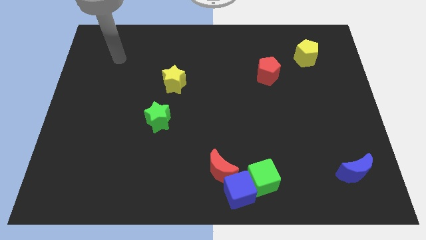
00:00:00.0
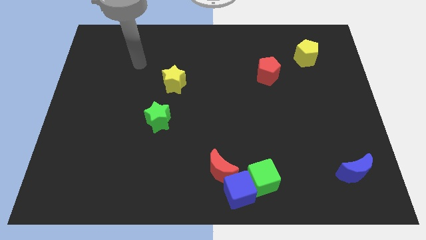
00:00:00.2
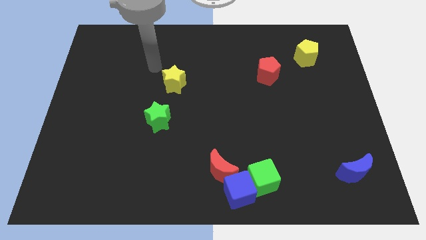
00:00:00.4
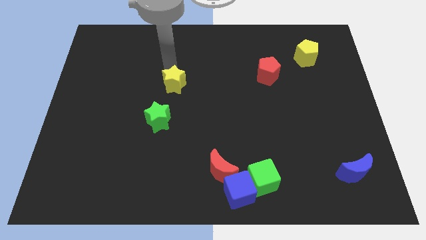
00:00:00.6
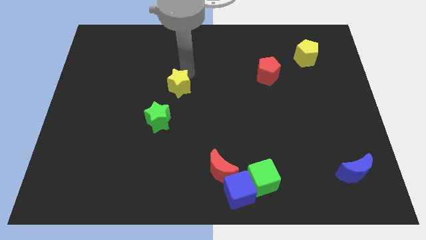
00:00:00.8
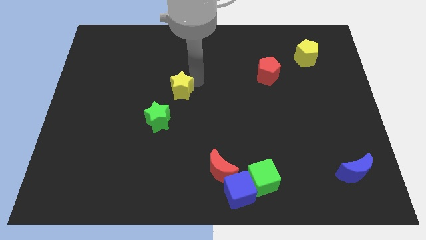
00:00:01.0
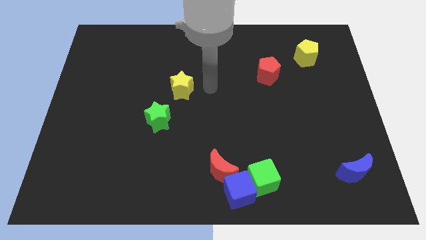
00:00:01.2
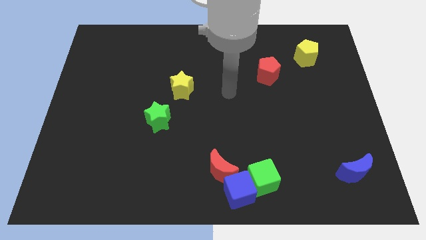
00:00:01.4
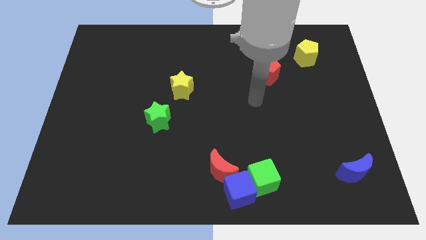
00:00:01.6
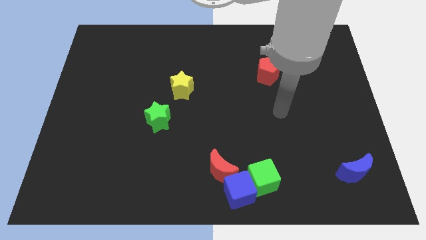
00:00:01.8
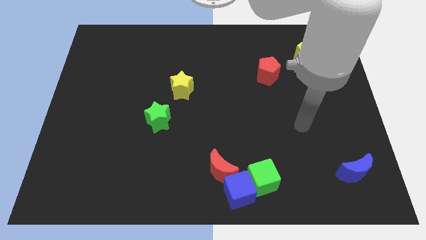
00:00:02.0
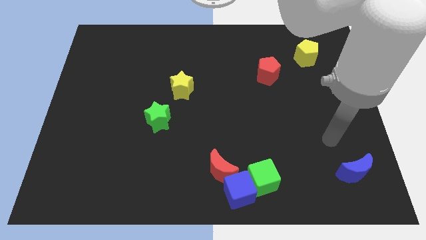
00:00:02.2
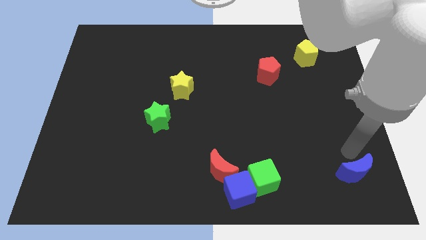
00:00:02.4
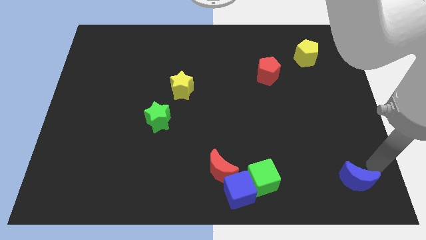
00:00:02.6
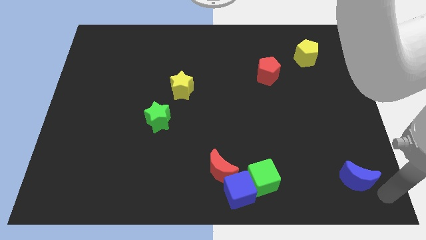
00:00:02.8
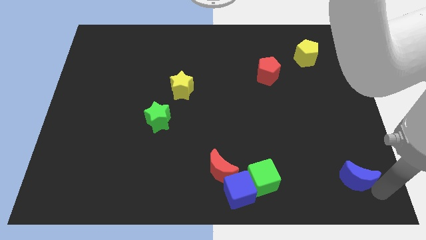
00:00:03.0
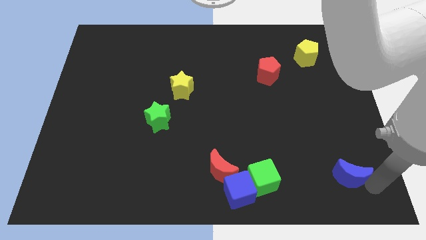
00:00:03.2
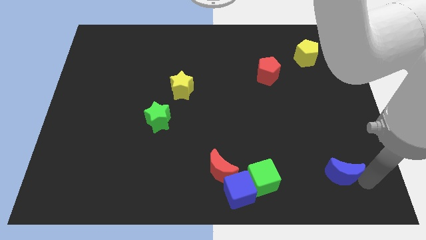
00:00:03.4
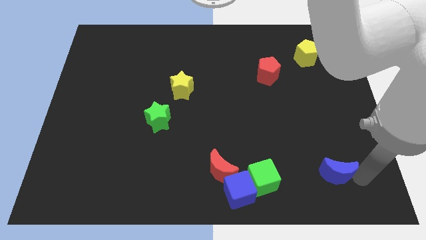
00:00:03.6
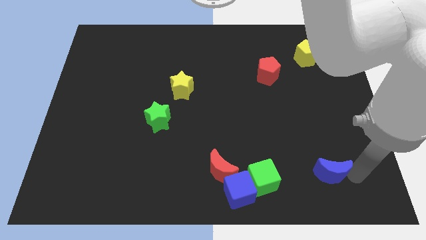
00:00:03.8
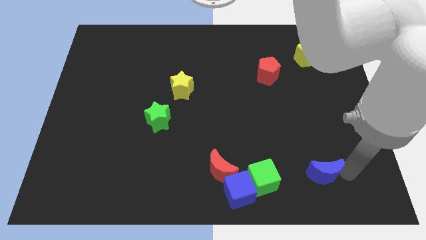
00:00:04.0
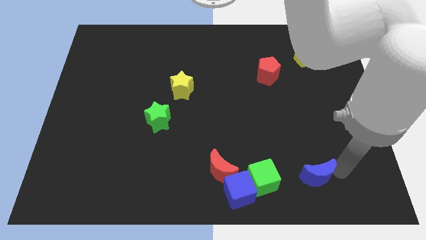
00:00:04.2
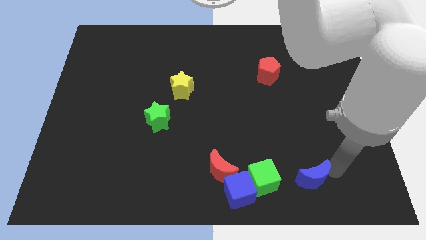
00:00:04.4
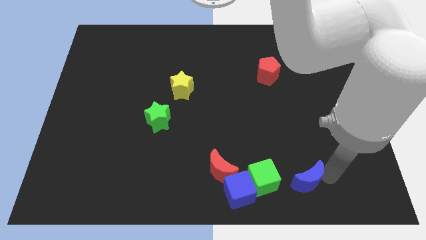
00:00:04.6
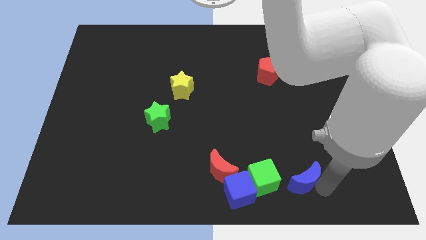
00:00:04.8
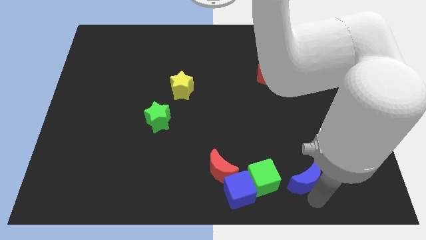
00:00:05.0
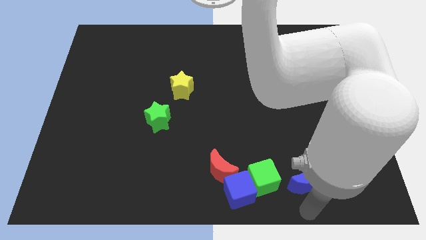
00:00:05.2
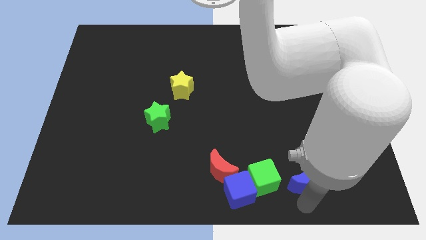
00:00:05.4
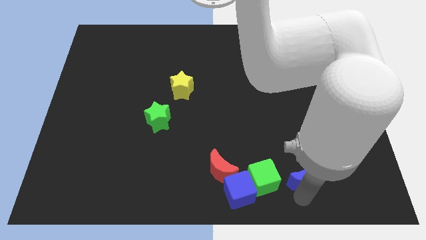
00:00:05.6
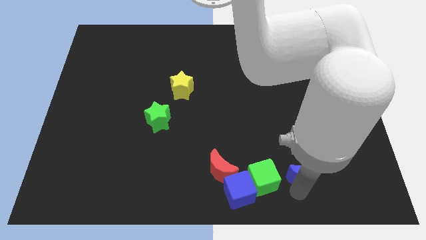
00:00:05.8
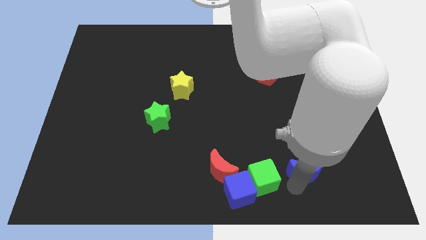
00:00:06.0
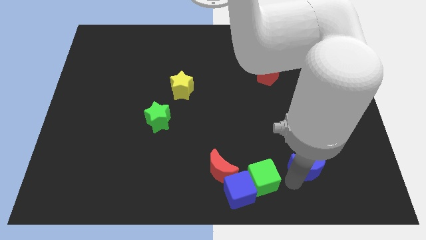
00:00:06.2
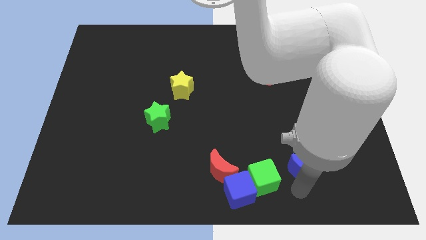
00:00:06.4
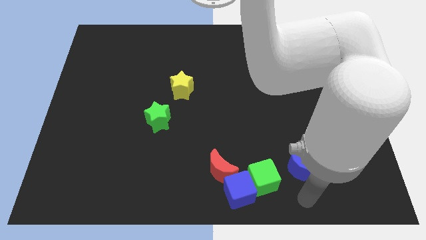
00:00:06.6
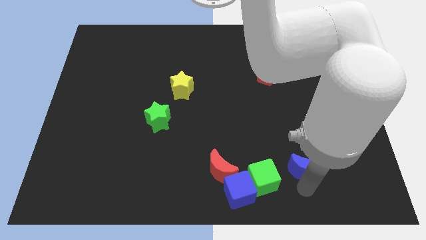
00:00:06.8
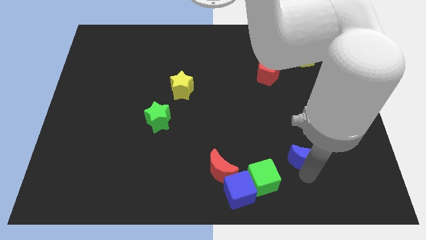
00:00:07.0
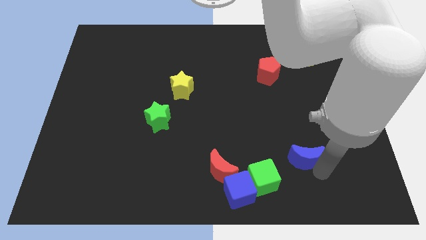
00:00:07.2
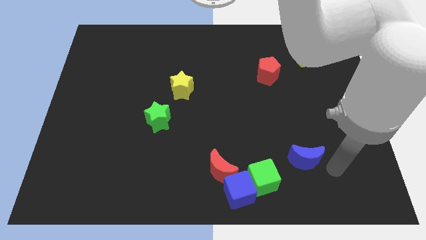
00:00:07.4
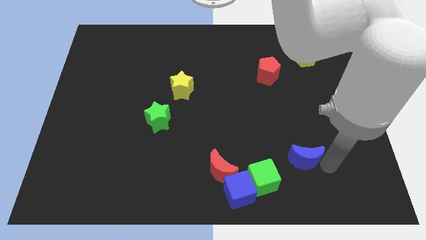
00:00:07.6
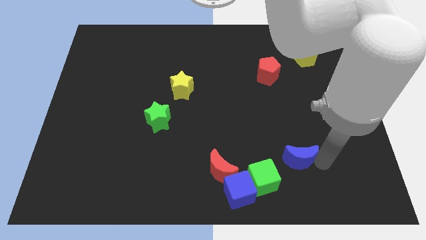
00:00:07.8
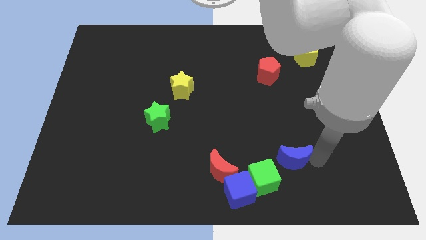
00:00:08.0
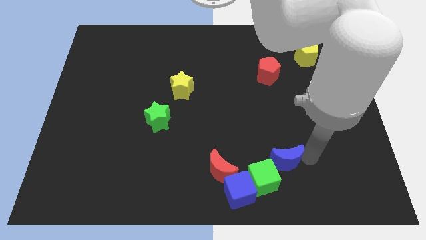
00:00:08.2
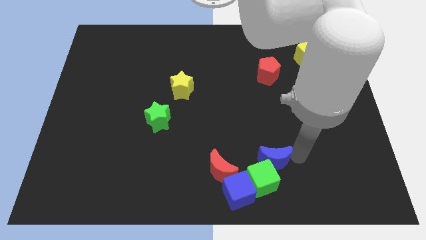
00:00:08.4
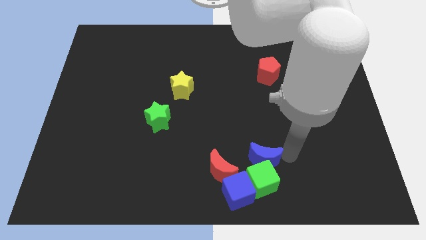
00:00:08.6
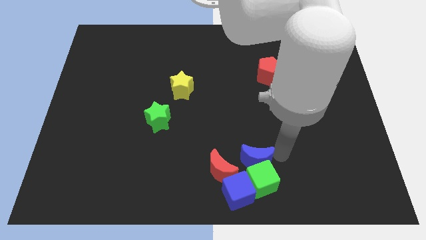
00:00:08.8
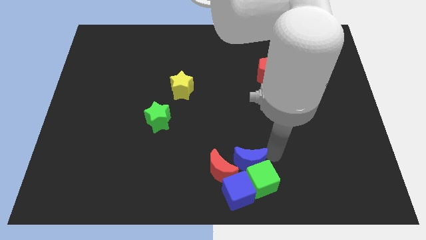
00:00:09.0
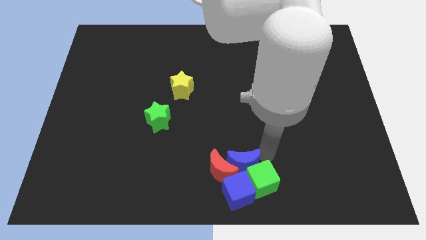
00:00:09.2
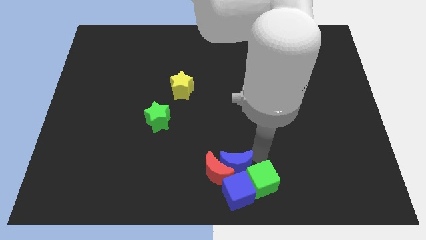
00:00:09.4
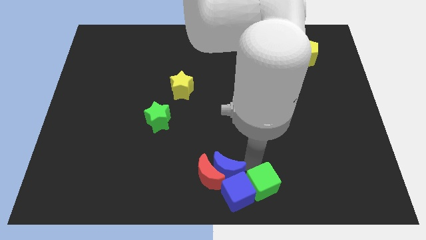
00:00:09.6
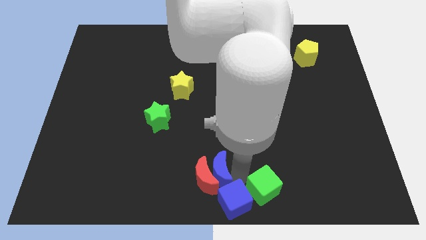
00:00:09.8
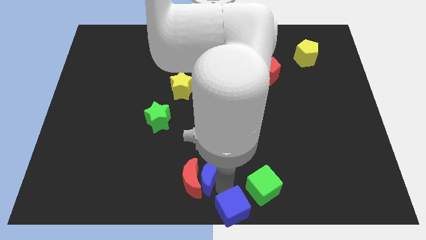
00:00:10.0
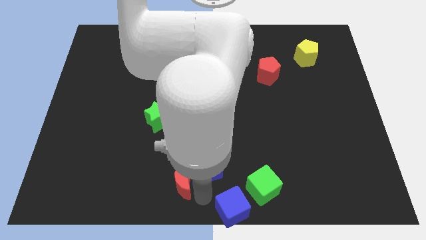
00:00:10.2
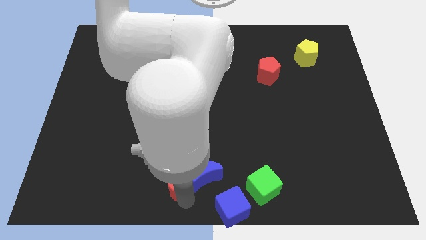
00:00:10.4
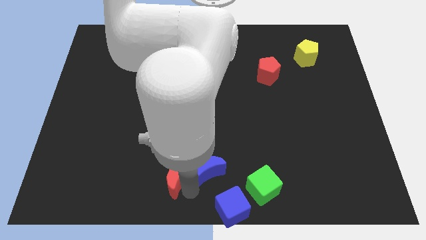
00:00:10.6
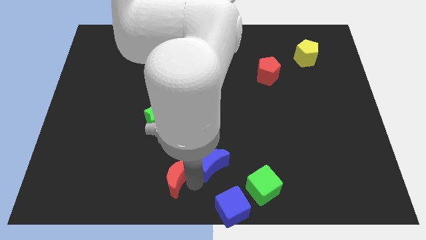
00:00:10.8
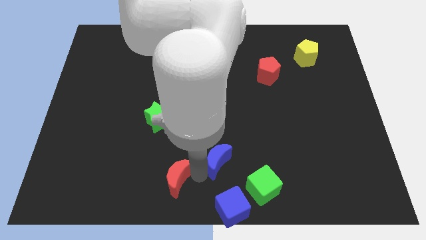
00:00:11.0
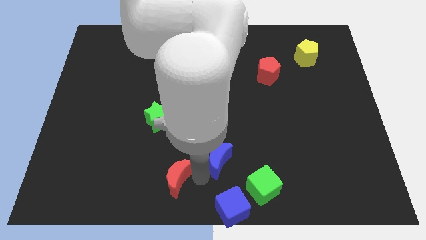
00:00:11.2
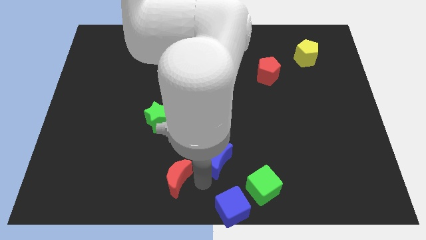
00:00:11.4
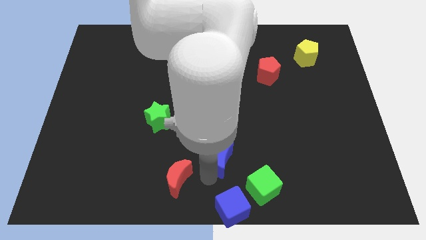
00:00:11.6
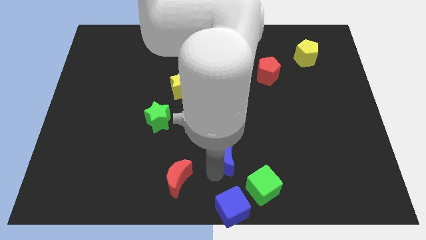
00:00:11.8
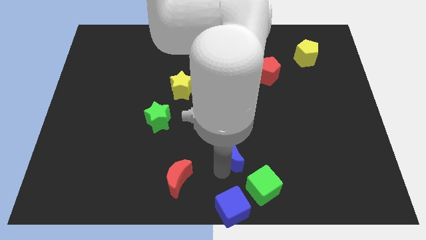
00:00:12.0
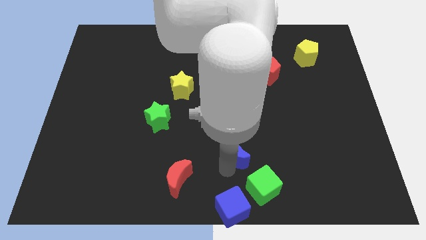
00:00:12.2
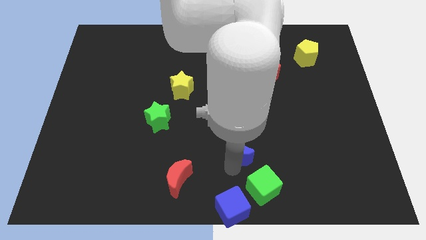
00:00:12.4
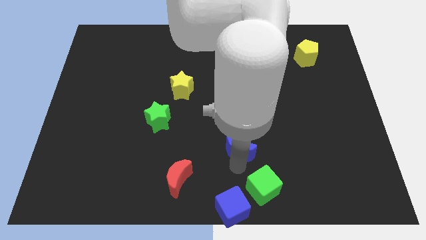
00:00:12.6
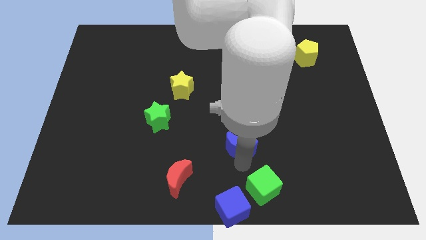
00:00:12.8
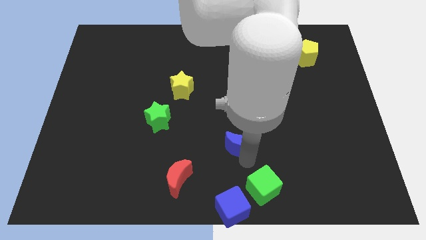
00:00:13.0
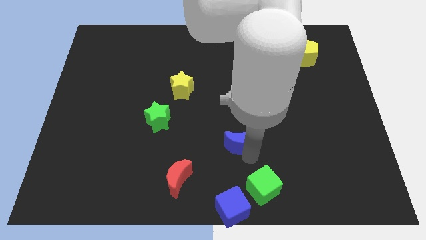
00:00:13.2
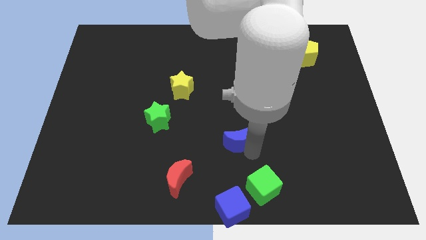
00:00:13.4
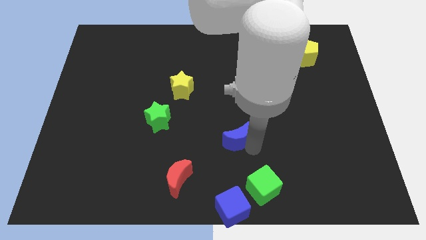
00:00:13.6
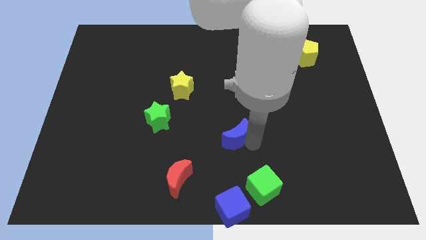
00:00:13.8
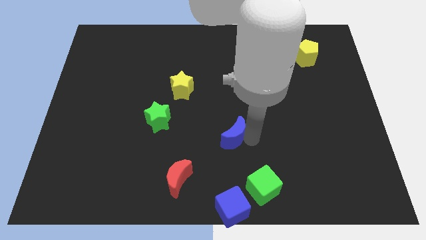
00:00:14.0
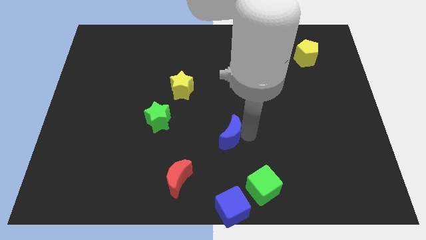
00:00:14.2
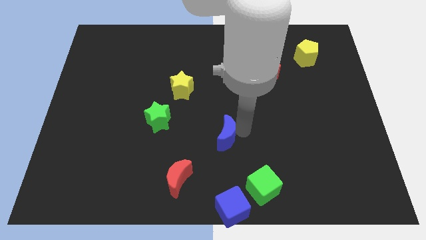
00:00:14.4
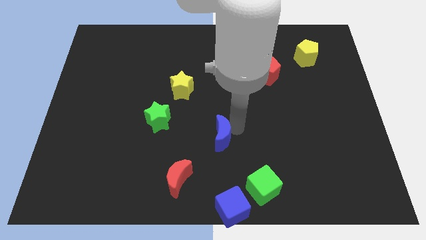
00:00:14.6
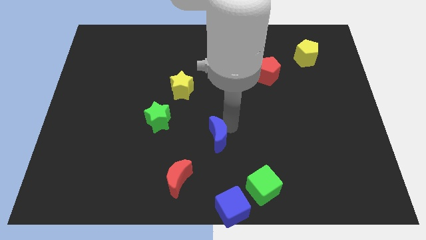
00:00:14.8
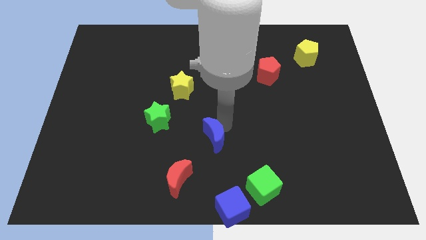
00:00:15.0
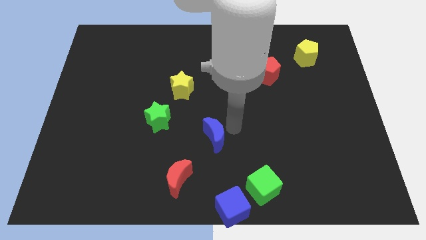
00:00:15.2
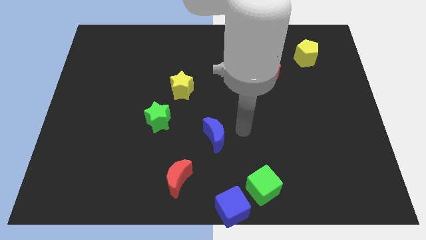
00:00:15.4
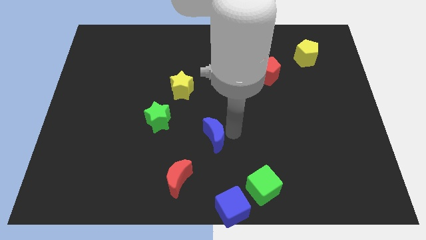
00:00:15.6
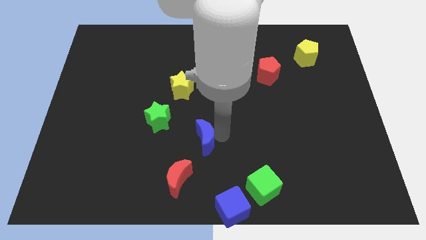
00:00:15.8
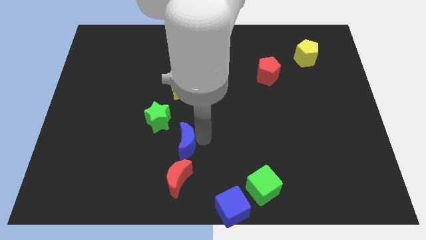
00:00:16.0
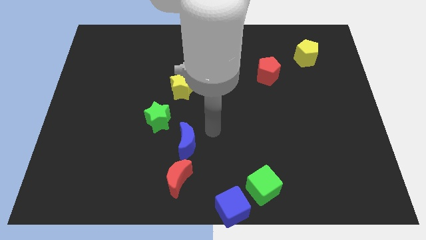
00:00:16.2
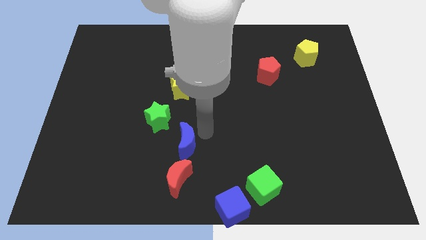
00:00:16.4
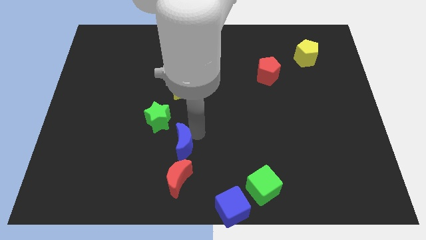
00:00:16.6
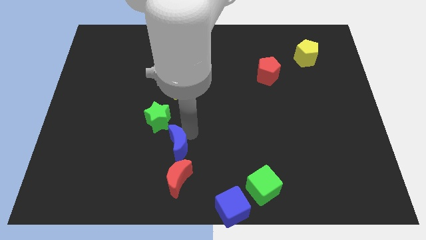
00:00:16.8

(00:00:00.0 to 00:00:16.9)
put the blue moon to the bottom of the green star
